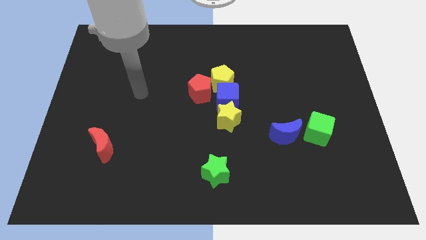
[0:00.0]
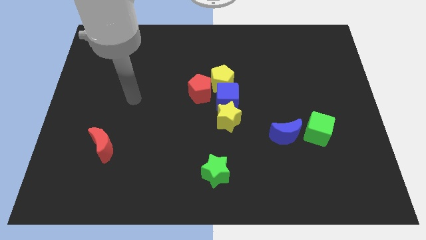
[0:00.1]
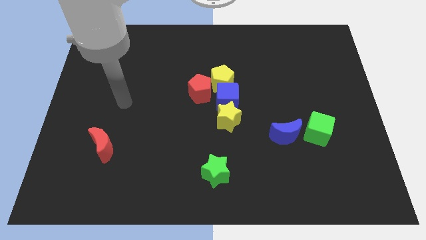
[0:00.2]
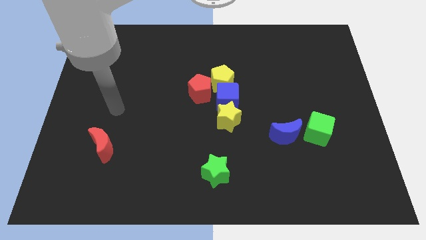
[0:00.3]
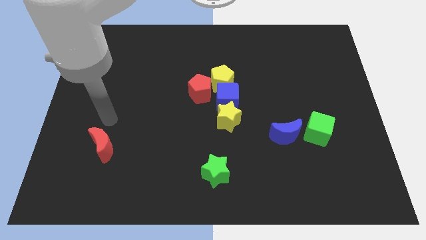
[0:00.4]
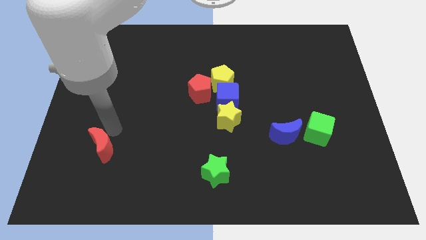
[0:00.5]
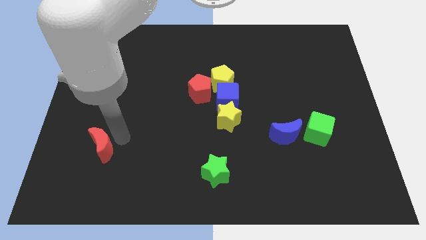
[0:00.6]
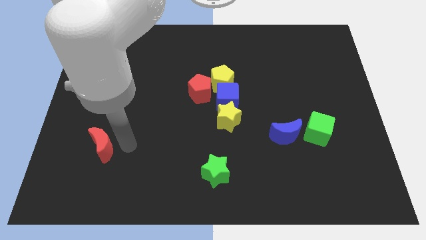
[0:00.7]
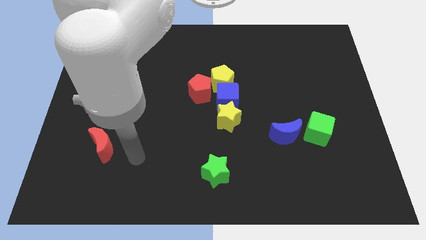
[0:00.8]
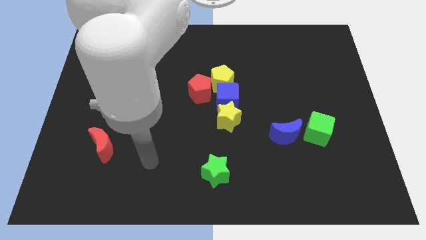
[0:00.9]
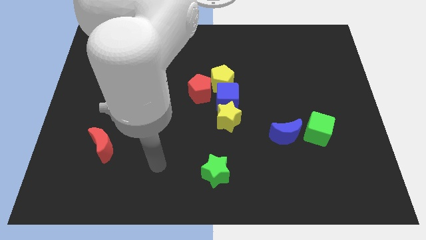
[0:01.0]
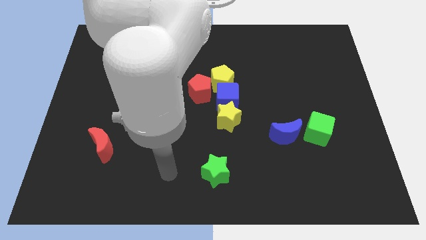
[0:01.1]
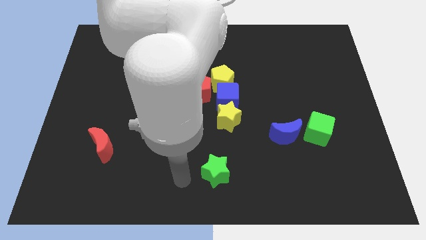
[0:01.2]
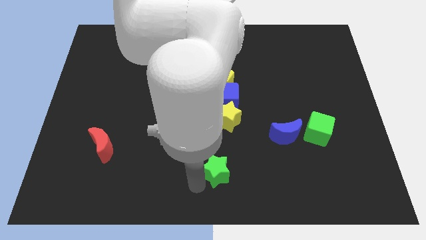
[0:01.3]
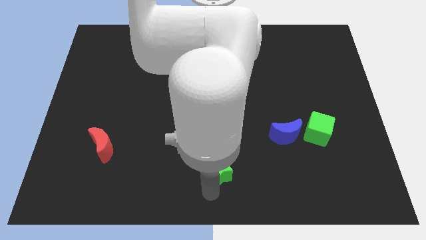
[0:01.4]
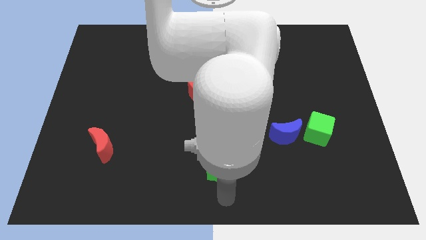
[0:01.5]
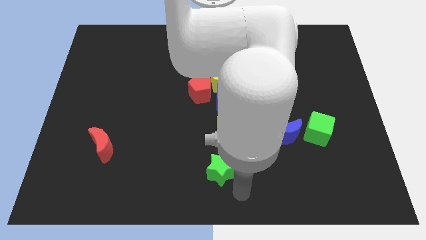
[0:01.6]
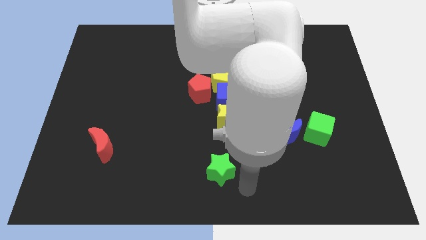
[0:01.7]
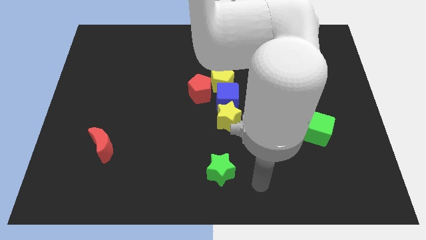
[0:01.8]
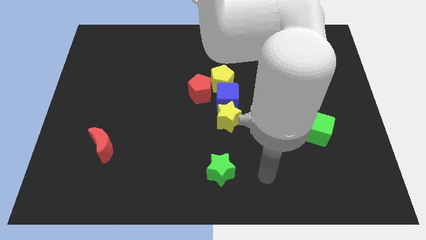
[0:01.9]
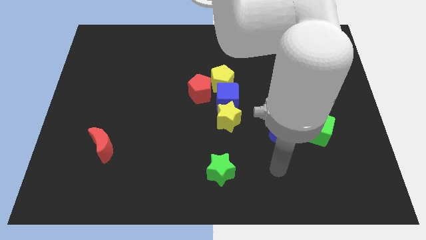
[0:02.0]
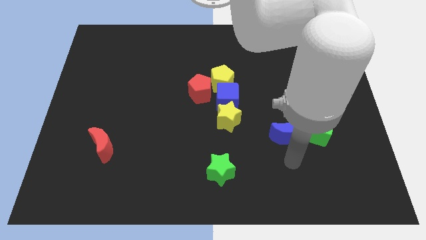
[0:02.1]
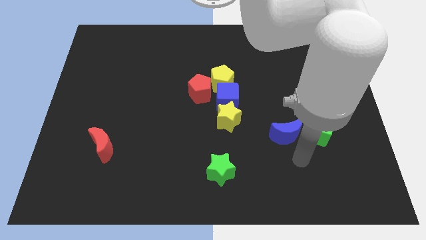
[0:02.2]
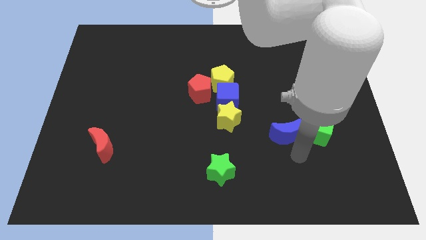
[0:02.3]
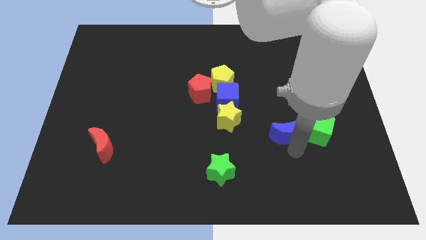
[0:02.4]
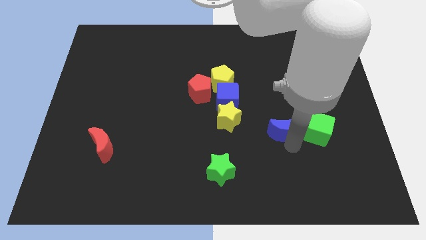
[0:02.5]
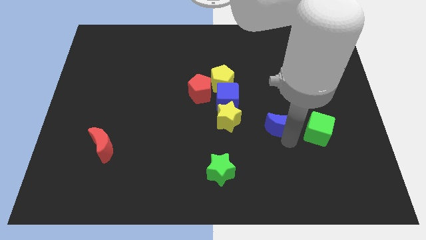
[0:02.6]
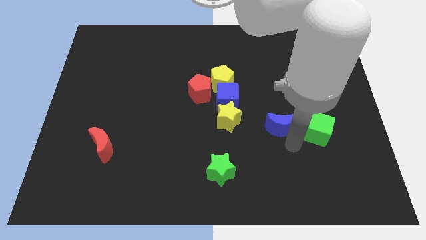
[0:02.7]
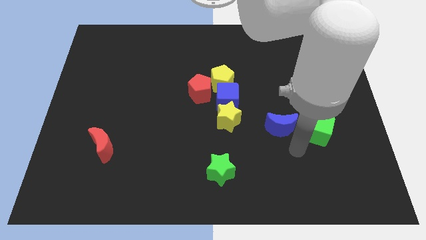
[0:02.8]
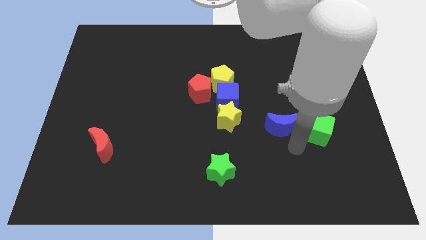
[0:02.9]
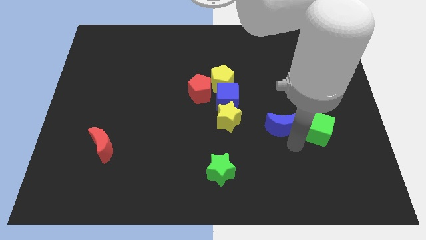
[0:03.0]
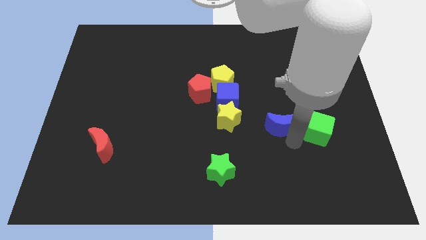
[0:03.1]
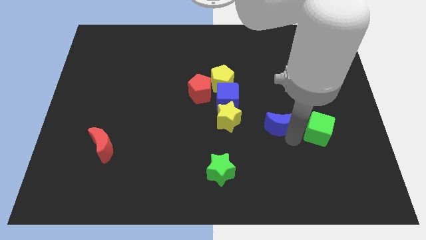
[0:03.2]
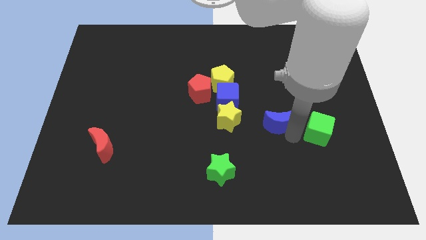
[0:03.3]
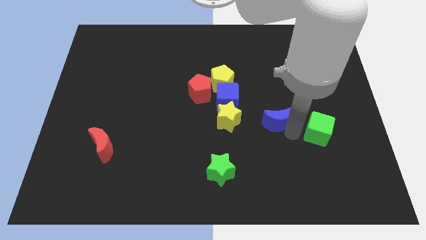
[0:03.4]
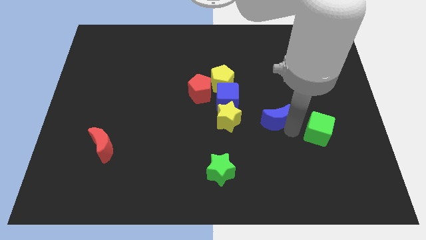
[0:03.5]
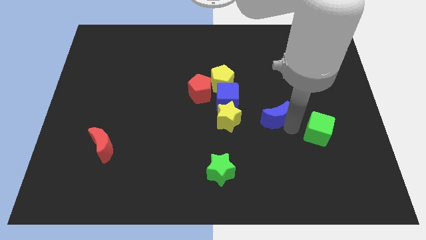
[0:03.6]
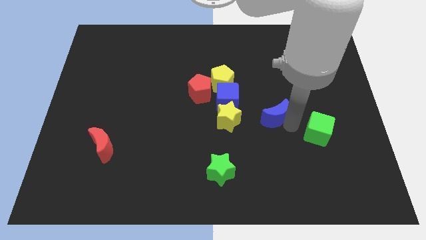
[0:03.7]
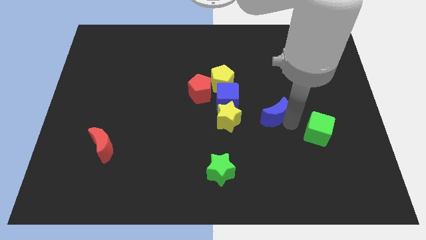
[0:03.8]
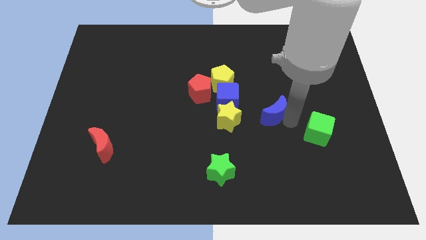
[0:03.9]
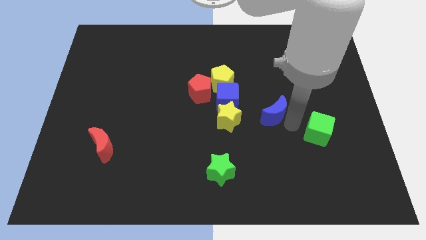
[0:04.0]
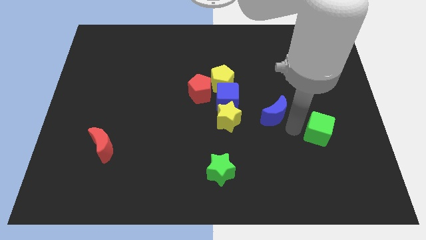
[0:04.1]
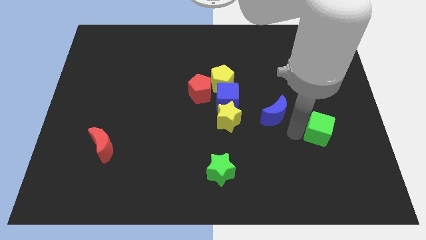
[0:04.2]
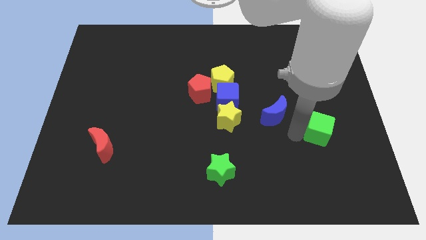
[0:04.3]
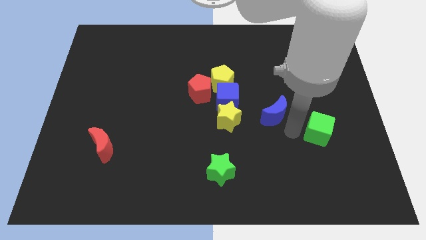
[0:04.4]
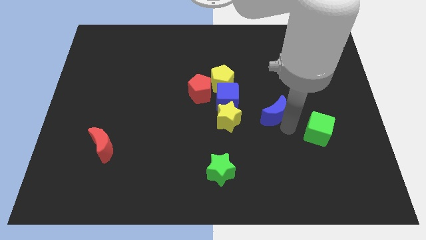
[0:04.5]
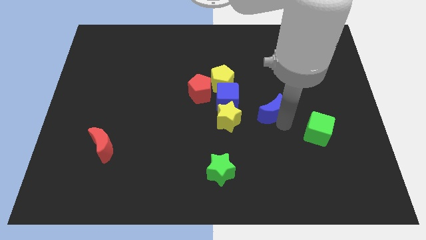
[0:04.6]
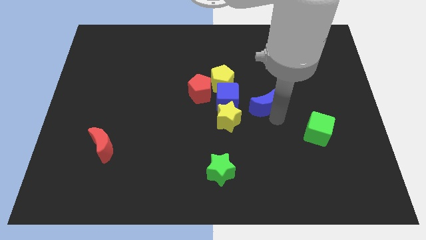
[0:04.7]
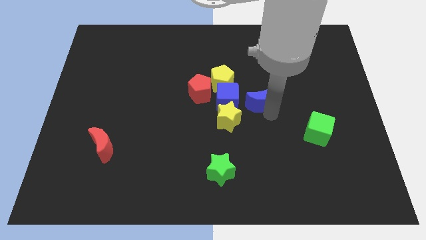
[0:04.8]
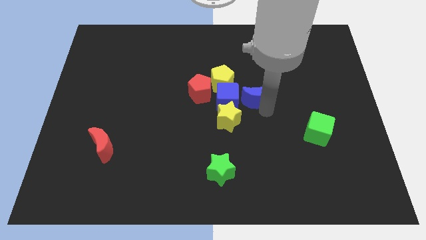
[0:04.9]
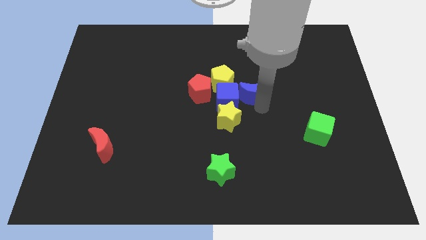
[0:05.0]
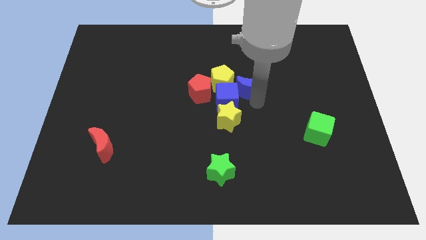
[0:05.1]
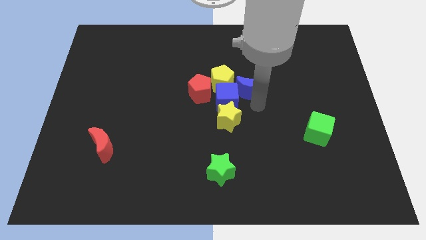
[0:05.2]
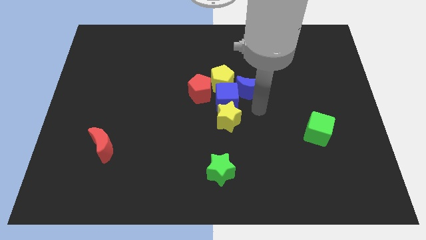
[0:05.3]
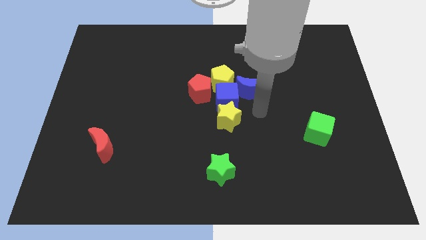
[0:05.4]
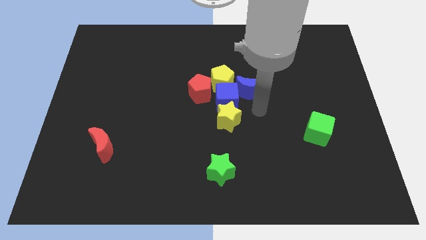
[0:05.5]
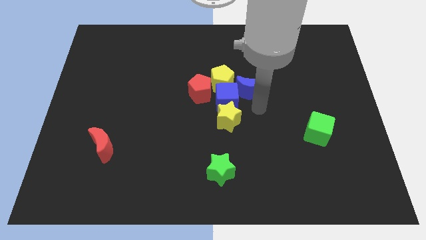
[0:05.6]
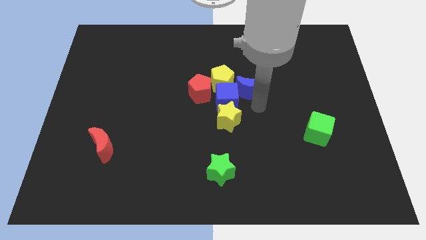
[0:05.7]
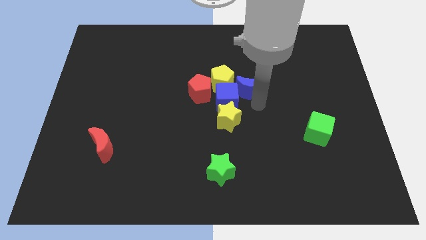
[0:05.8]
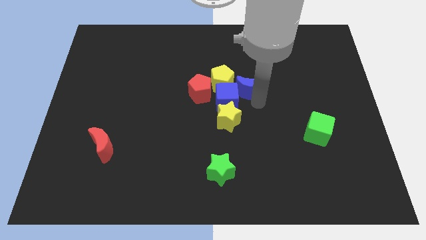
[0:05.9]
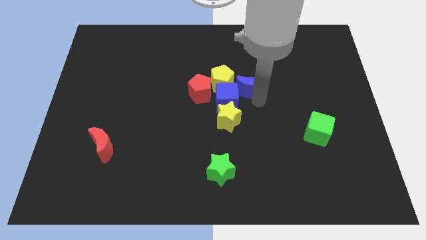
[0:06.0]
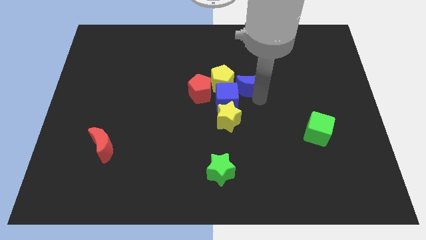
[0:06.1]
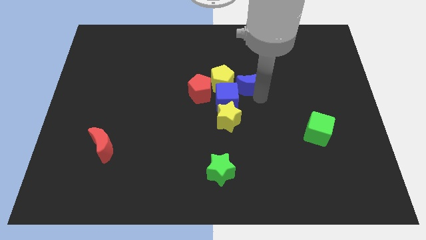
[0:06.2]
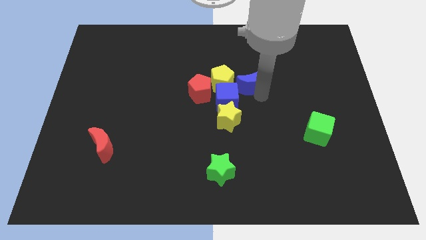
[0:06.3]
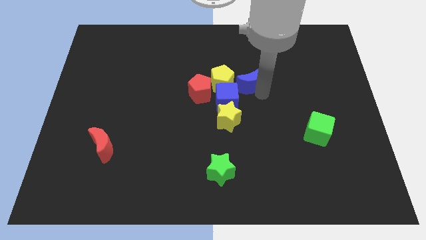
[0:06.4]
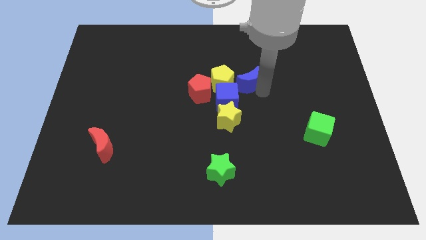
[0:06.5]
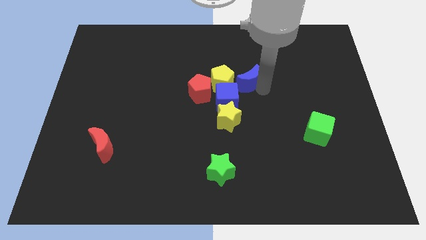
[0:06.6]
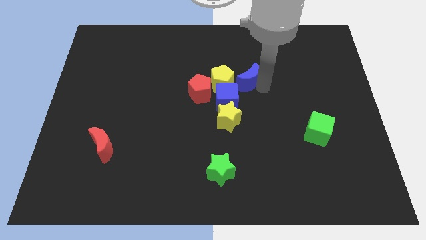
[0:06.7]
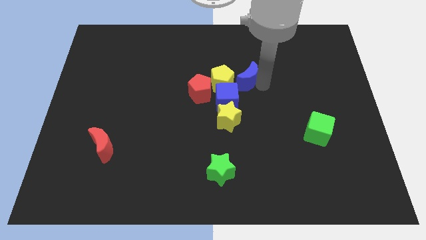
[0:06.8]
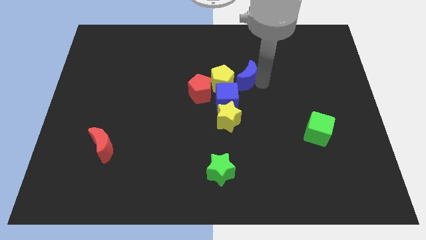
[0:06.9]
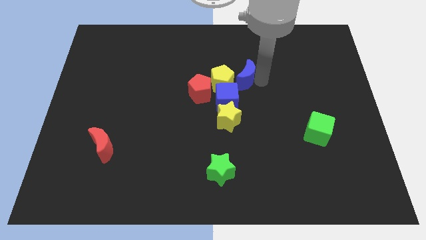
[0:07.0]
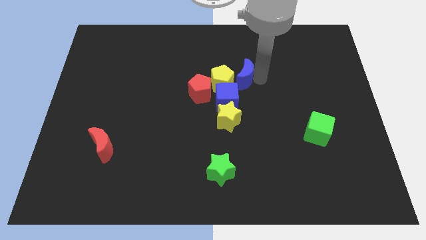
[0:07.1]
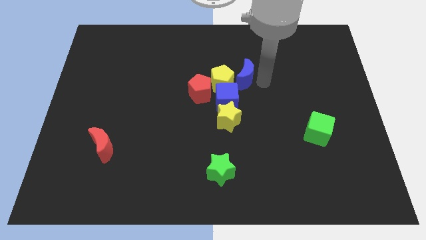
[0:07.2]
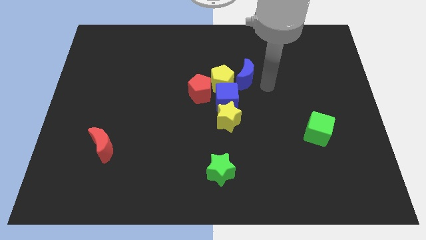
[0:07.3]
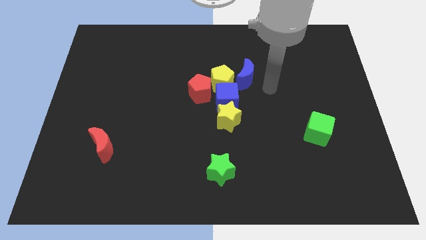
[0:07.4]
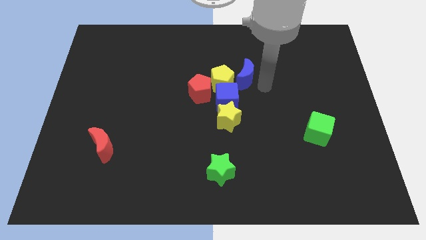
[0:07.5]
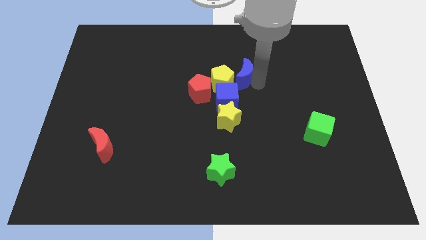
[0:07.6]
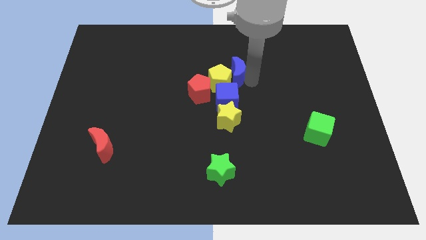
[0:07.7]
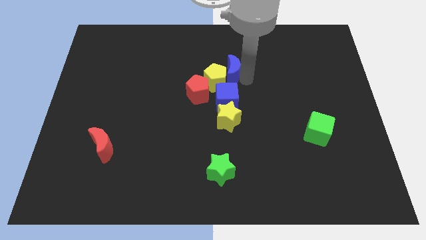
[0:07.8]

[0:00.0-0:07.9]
push the blue moon up and then left

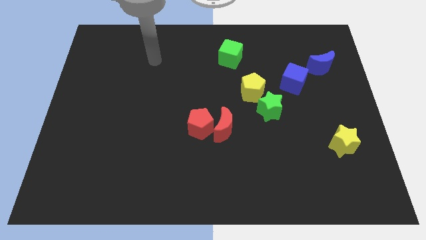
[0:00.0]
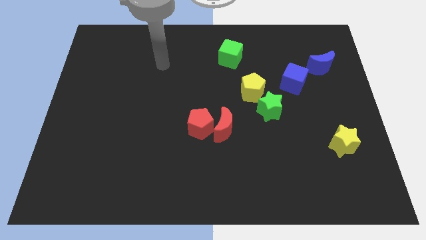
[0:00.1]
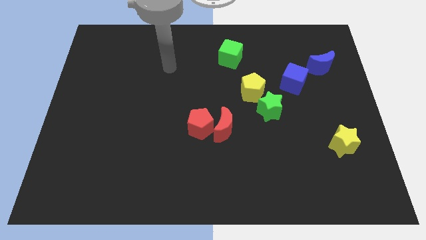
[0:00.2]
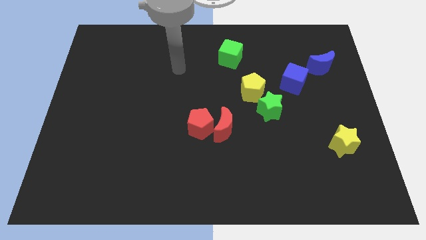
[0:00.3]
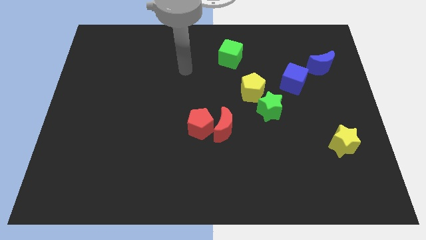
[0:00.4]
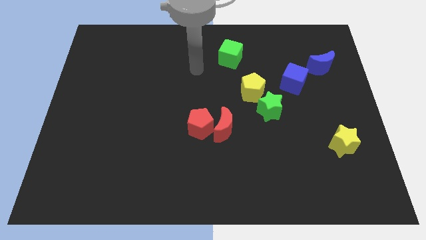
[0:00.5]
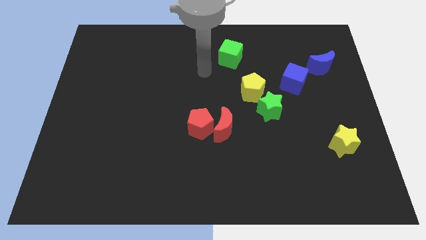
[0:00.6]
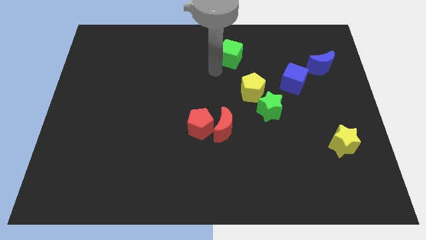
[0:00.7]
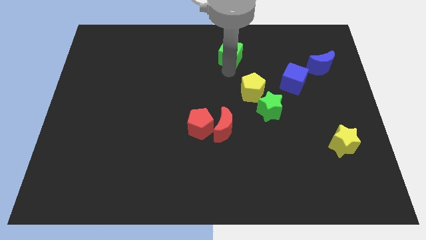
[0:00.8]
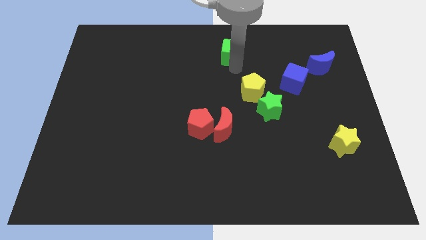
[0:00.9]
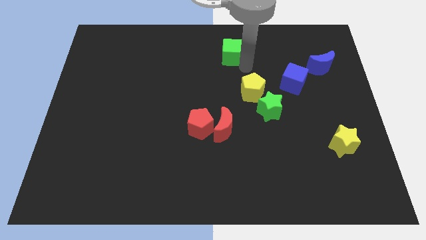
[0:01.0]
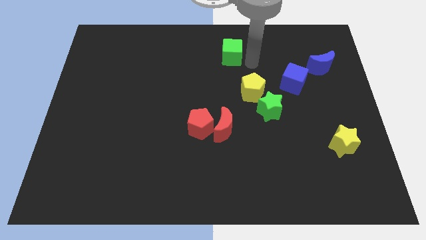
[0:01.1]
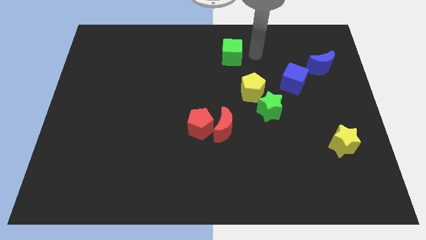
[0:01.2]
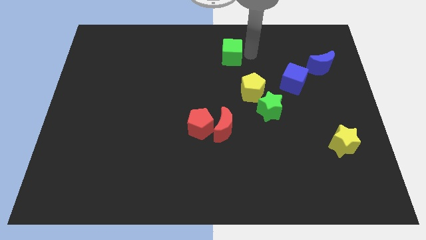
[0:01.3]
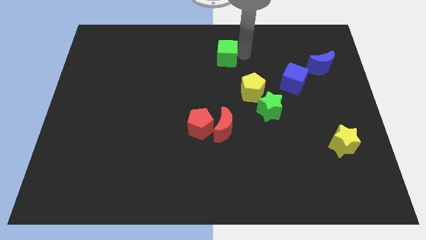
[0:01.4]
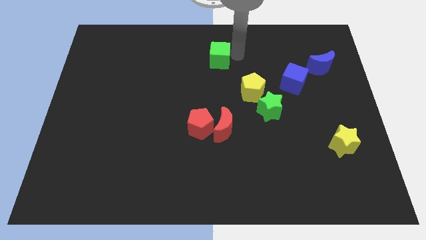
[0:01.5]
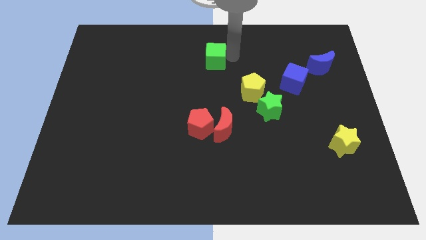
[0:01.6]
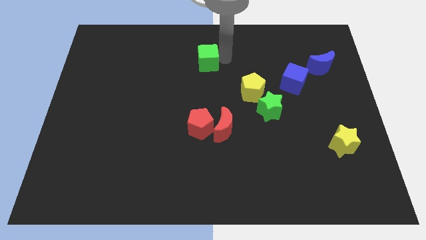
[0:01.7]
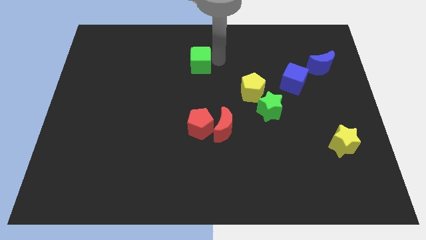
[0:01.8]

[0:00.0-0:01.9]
move the green cube to the left a little
